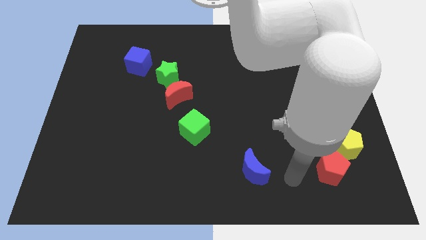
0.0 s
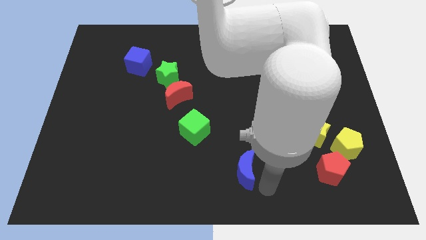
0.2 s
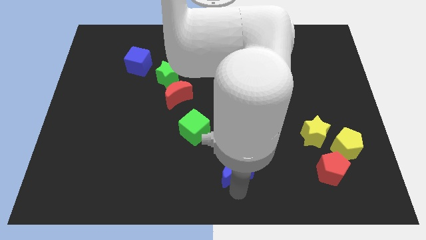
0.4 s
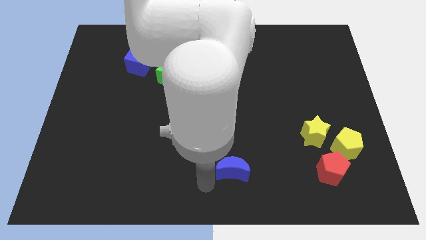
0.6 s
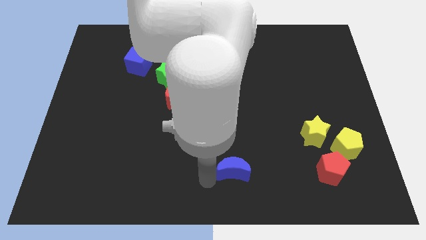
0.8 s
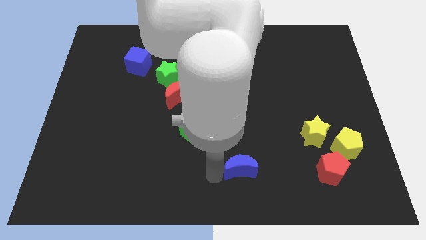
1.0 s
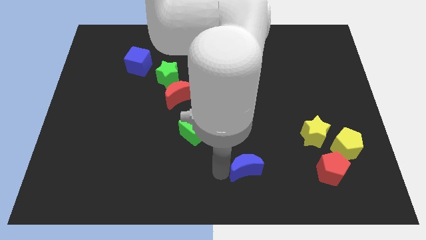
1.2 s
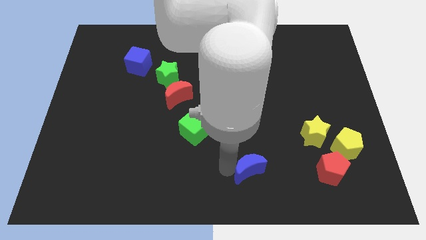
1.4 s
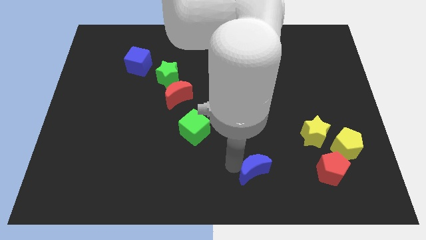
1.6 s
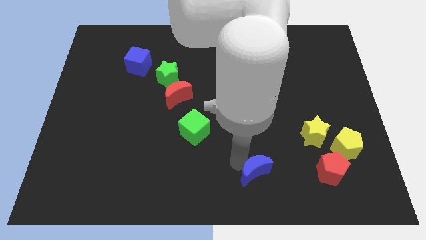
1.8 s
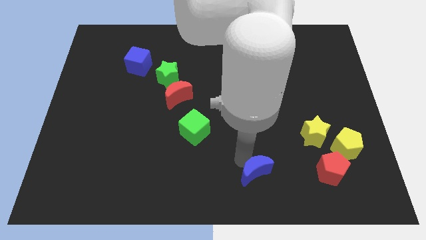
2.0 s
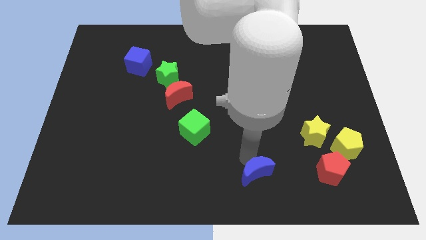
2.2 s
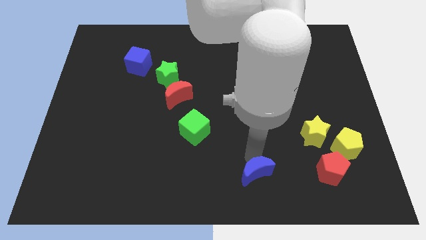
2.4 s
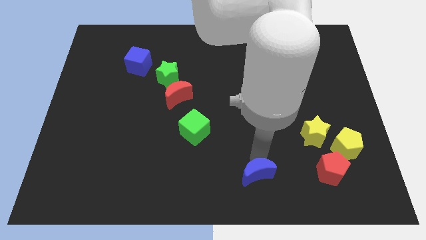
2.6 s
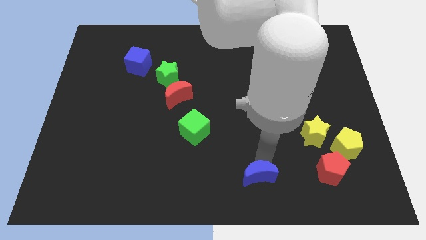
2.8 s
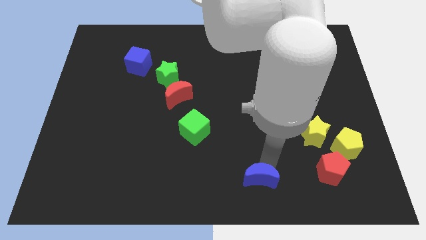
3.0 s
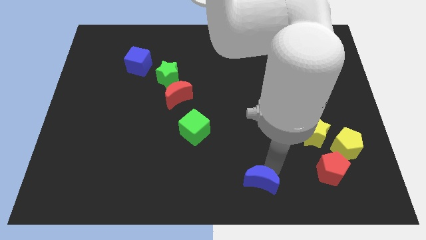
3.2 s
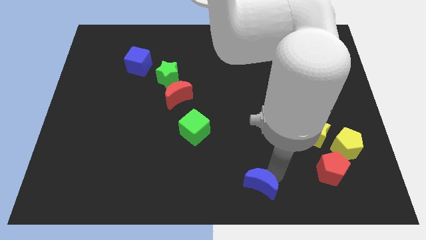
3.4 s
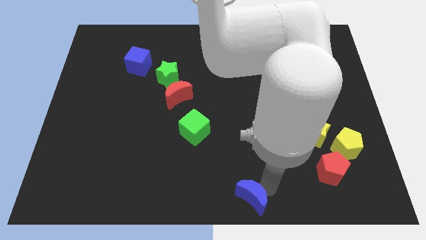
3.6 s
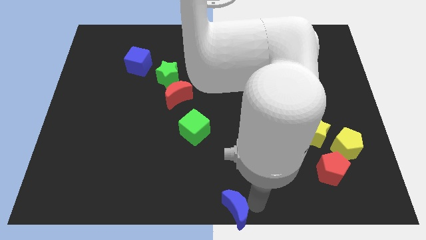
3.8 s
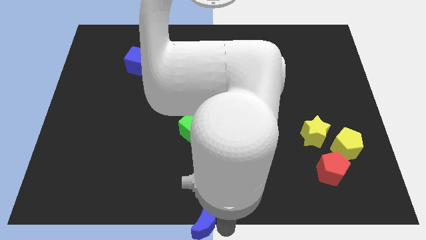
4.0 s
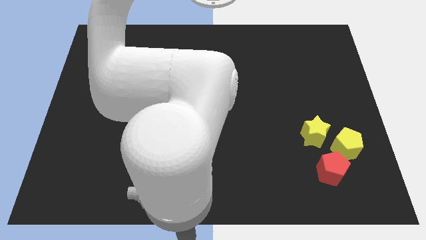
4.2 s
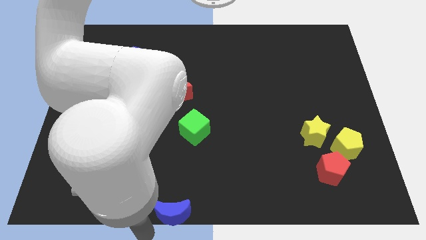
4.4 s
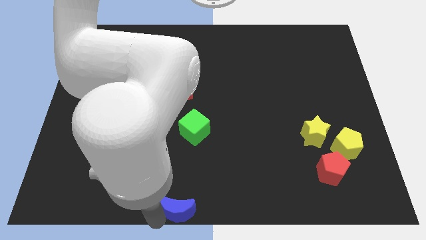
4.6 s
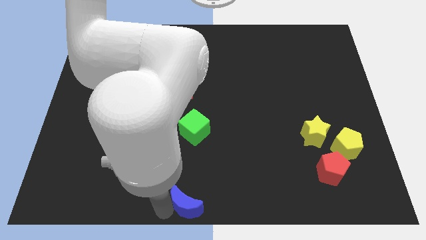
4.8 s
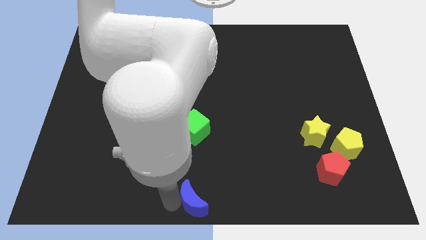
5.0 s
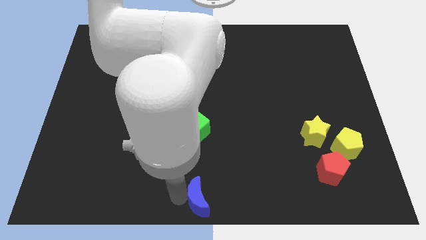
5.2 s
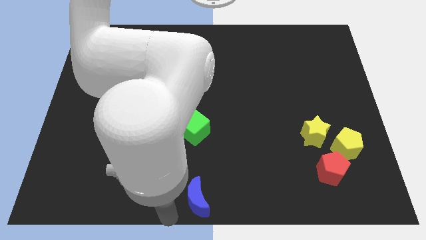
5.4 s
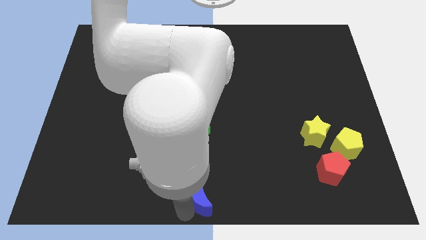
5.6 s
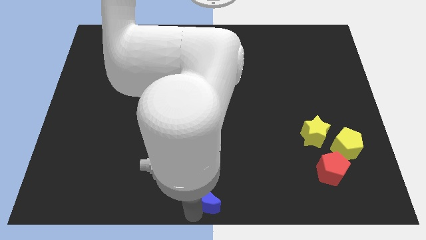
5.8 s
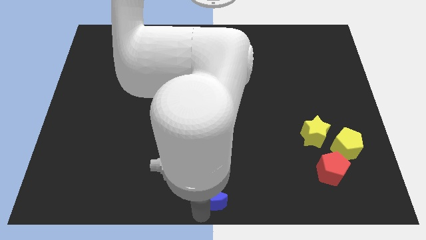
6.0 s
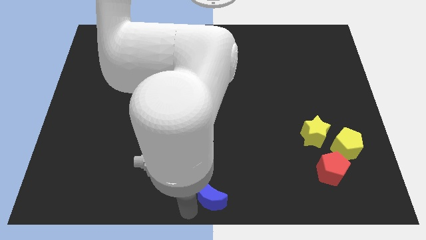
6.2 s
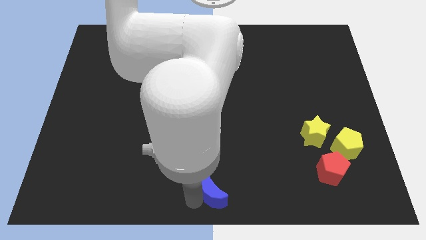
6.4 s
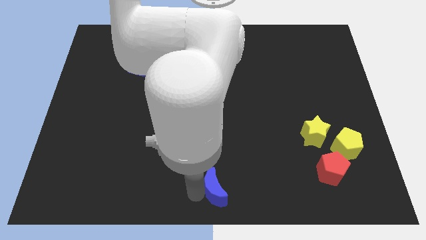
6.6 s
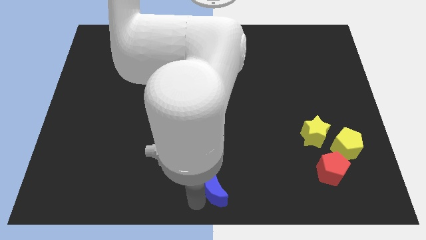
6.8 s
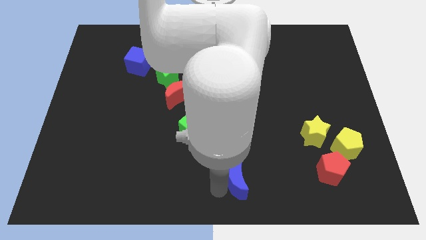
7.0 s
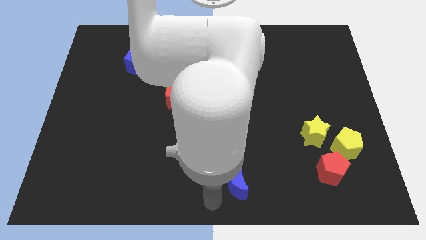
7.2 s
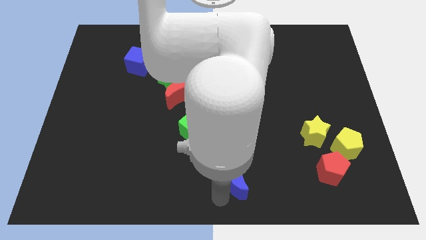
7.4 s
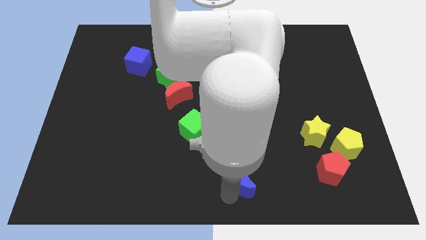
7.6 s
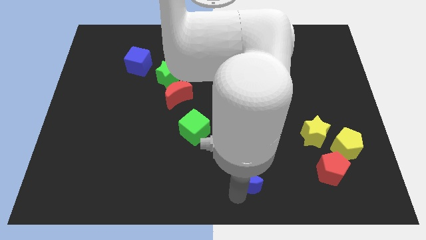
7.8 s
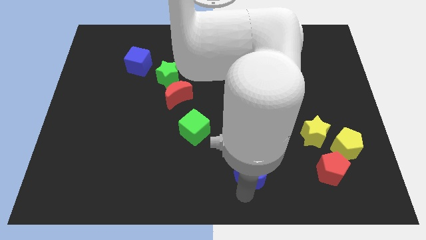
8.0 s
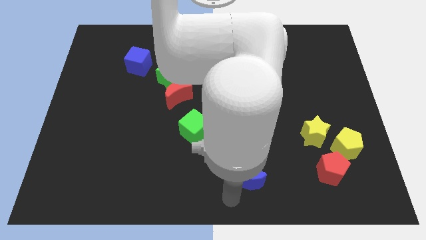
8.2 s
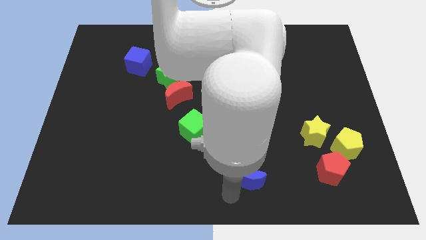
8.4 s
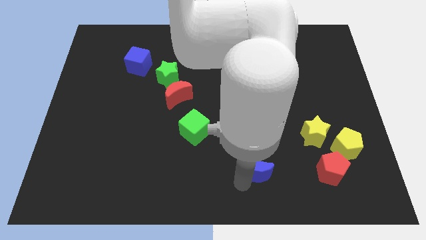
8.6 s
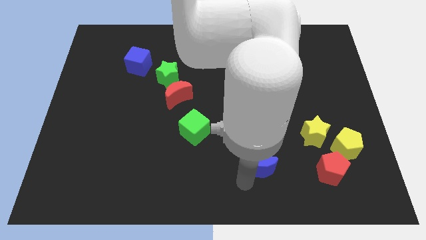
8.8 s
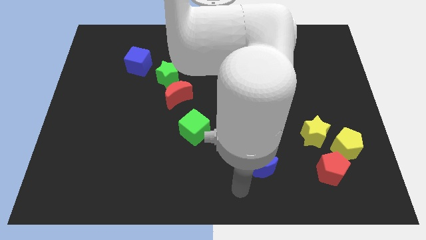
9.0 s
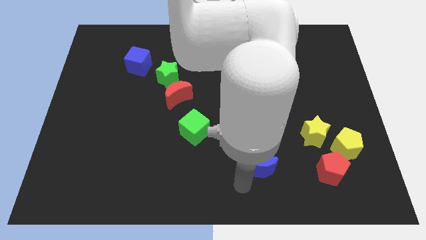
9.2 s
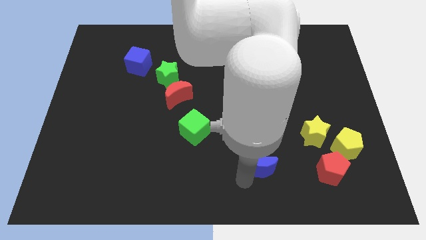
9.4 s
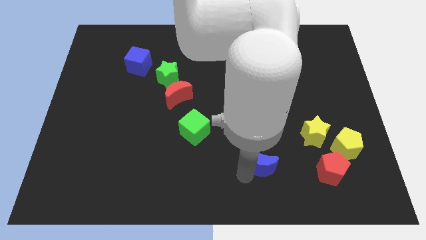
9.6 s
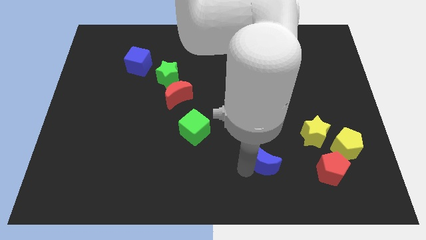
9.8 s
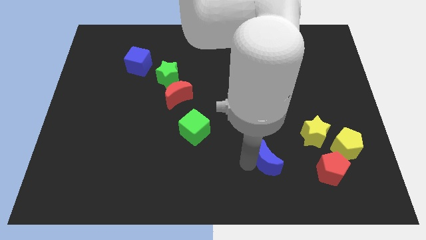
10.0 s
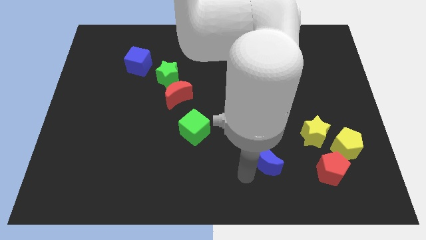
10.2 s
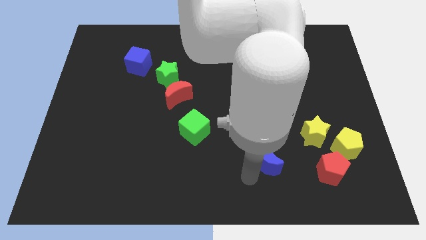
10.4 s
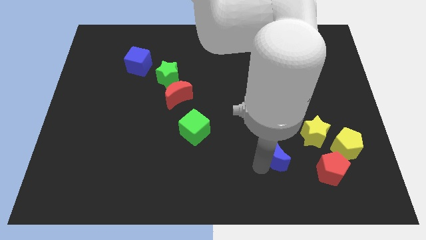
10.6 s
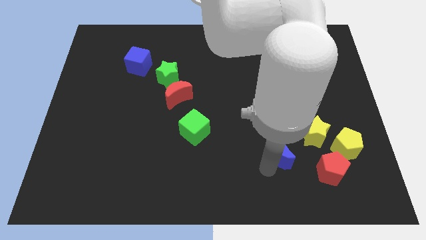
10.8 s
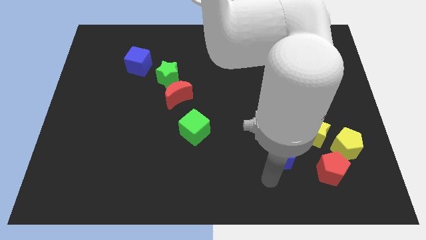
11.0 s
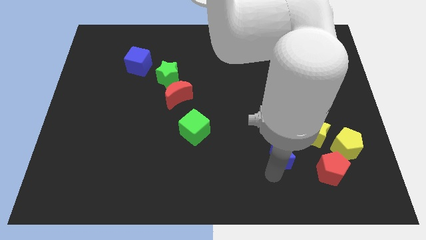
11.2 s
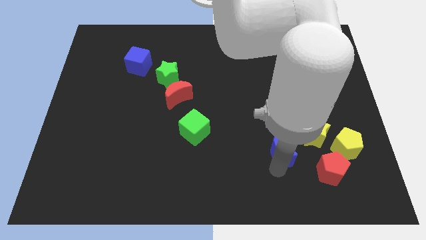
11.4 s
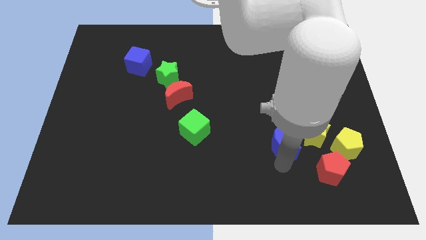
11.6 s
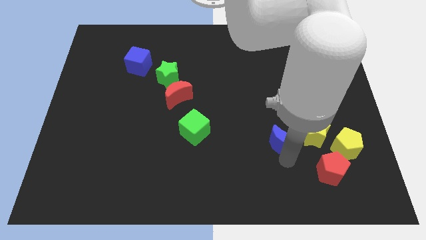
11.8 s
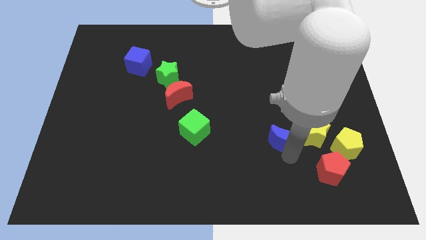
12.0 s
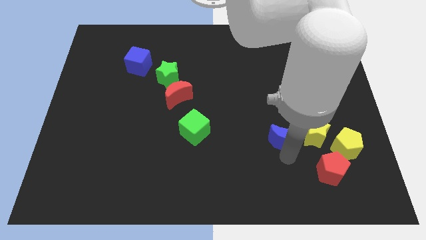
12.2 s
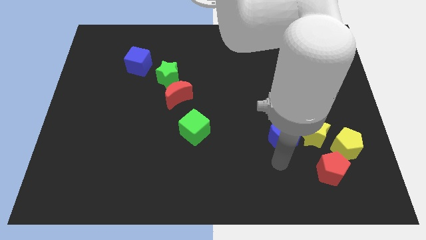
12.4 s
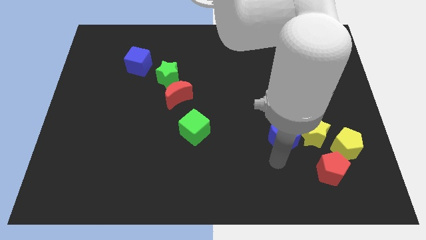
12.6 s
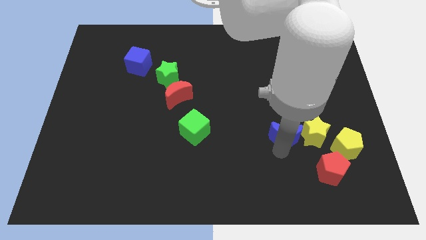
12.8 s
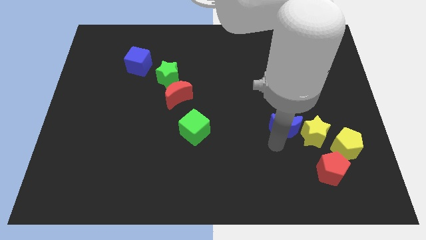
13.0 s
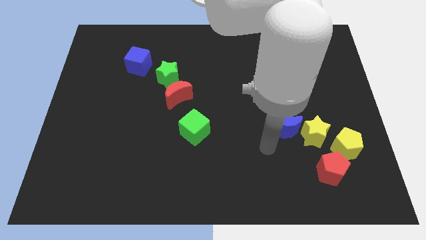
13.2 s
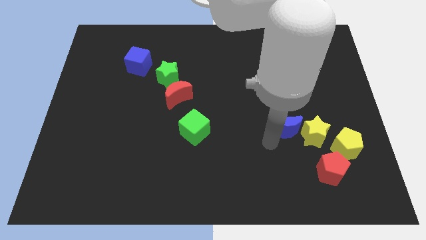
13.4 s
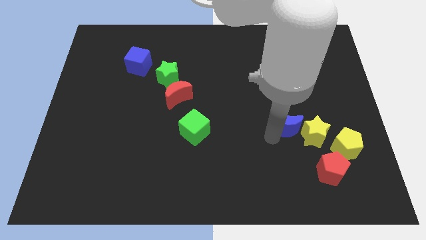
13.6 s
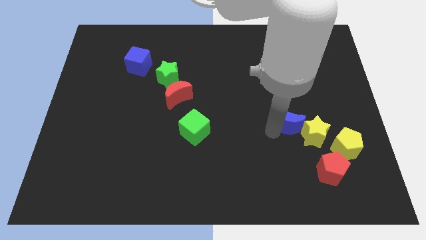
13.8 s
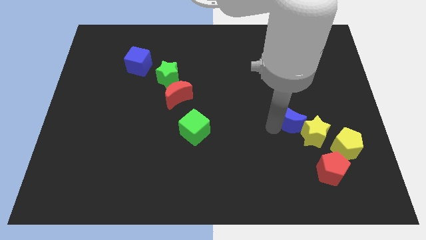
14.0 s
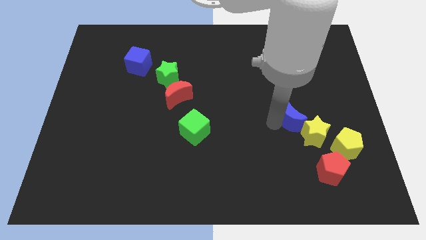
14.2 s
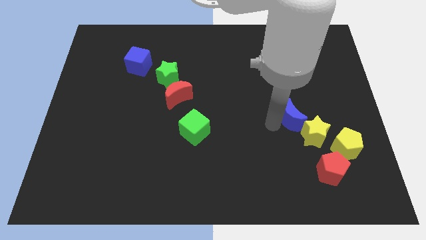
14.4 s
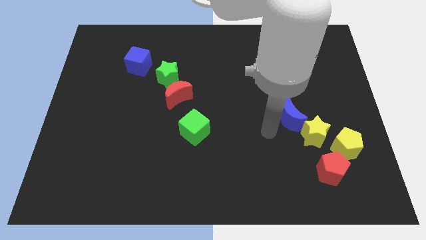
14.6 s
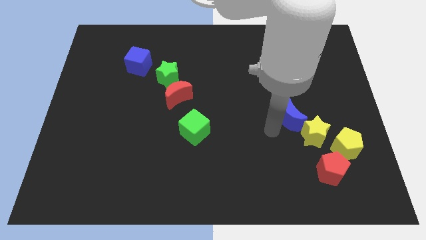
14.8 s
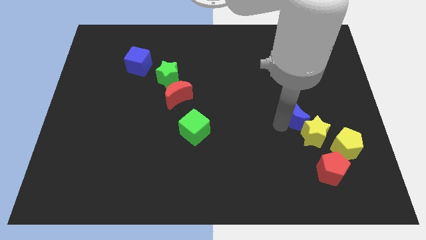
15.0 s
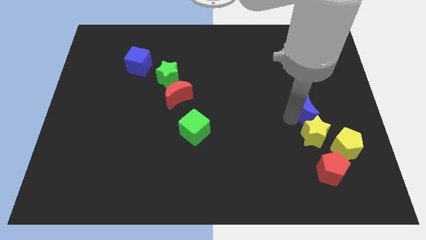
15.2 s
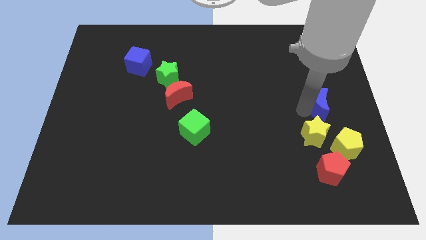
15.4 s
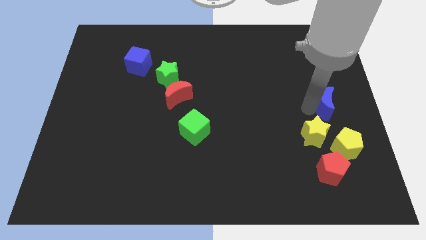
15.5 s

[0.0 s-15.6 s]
slide the blue moon to the center right
